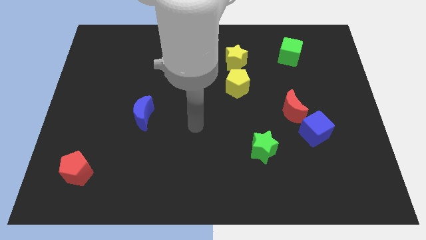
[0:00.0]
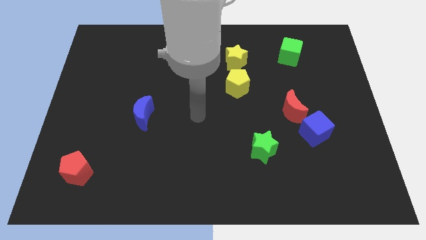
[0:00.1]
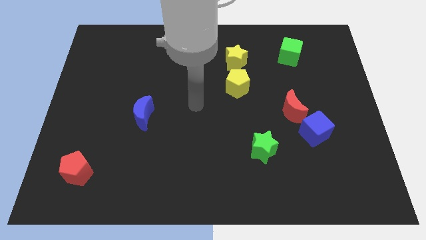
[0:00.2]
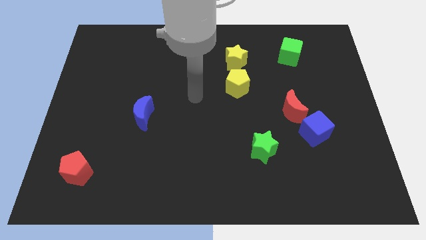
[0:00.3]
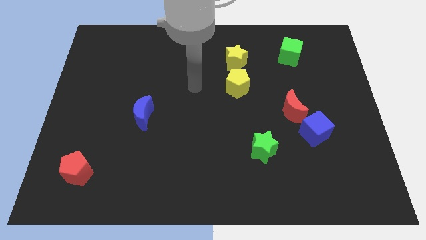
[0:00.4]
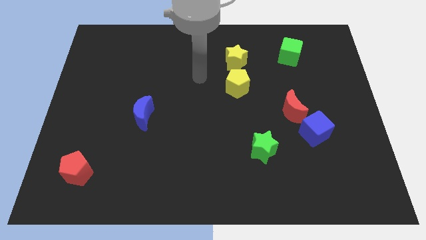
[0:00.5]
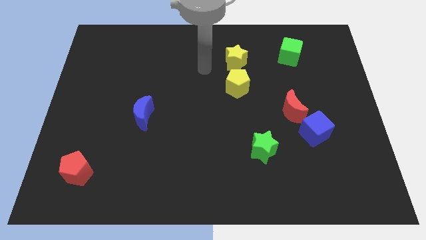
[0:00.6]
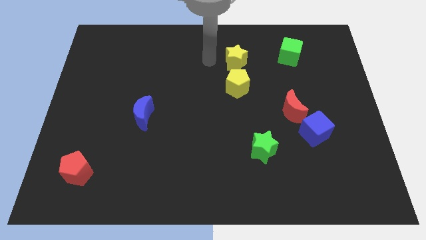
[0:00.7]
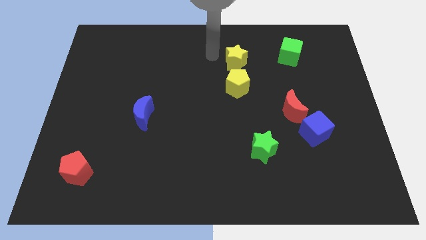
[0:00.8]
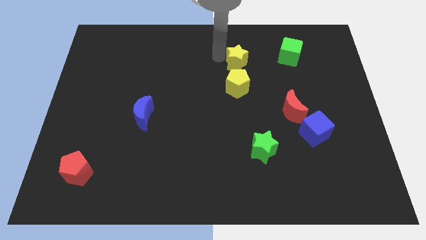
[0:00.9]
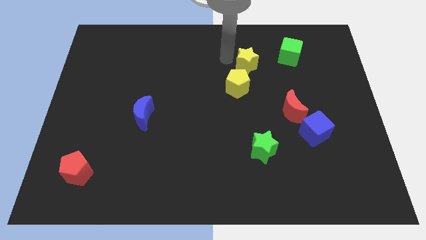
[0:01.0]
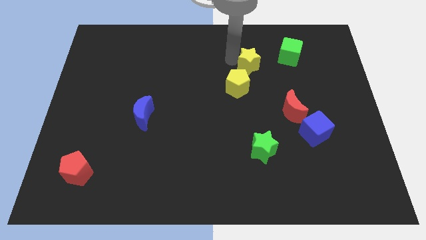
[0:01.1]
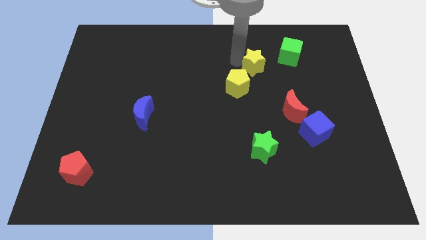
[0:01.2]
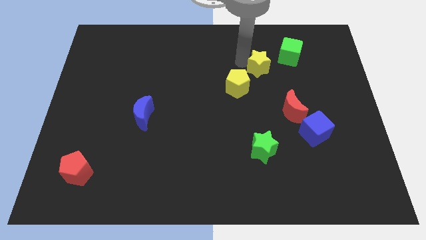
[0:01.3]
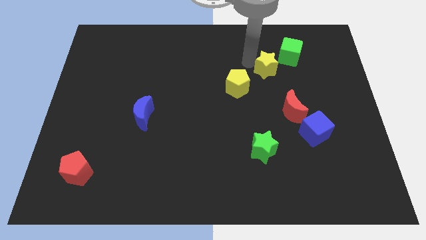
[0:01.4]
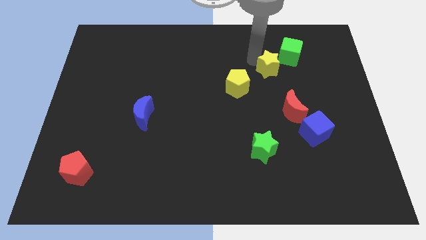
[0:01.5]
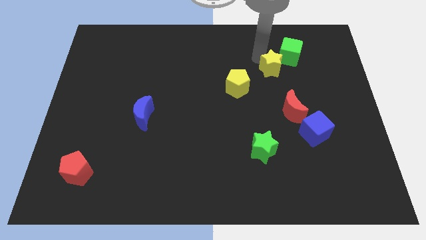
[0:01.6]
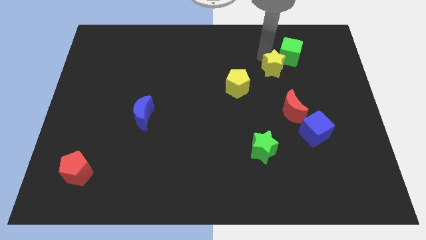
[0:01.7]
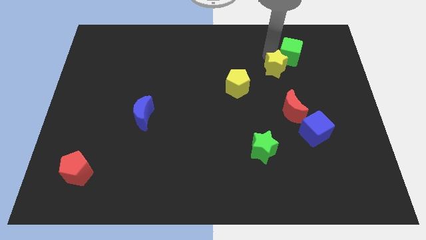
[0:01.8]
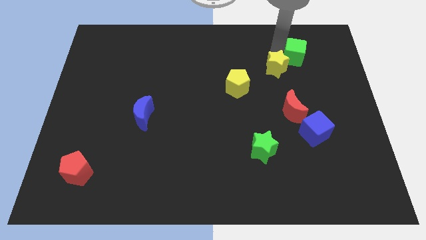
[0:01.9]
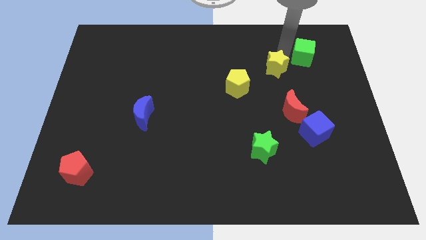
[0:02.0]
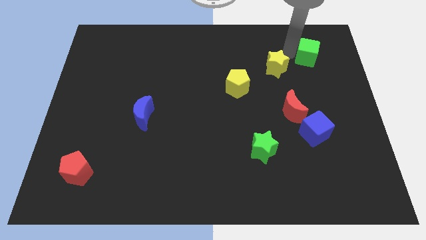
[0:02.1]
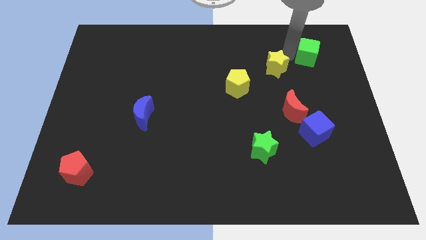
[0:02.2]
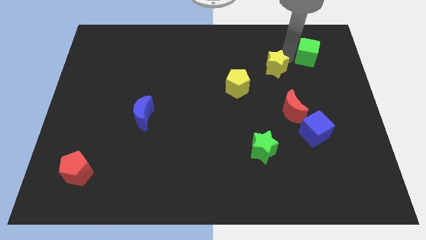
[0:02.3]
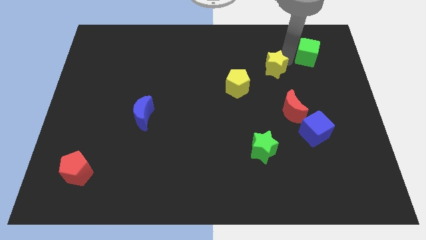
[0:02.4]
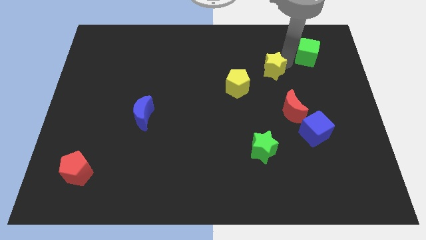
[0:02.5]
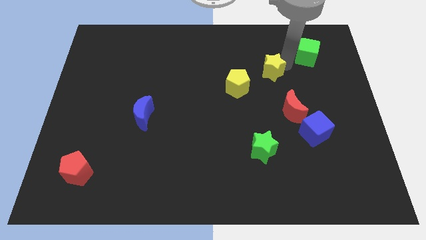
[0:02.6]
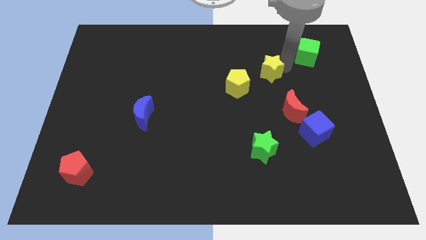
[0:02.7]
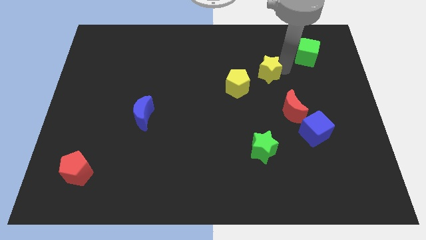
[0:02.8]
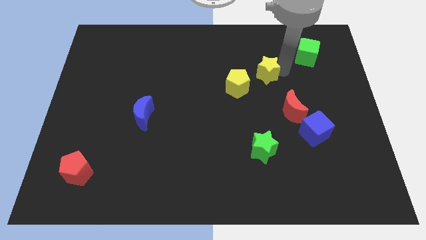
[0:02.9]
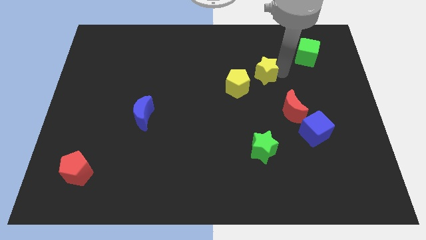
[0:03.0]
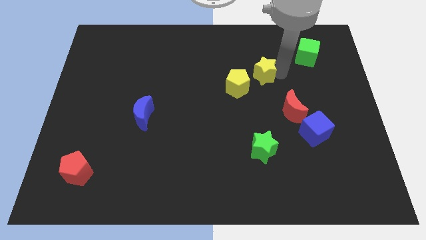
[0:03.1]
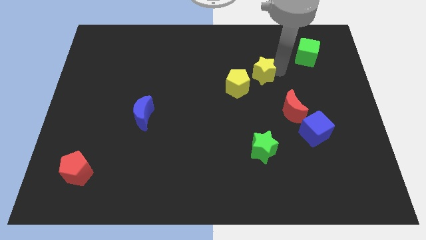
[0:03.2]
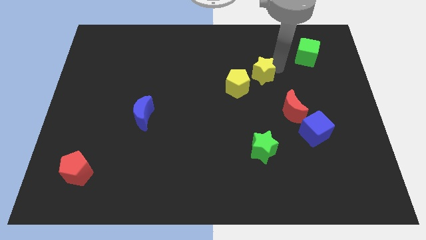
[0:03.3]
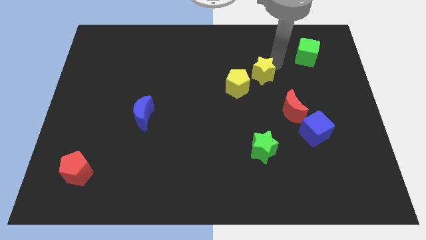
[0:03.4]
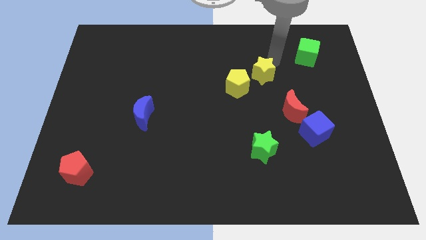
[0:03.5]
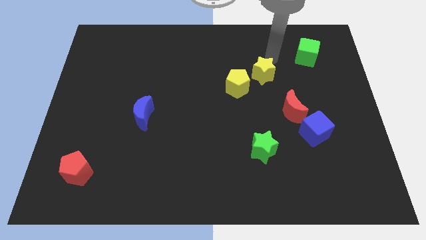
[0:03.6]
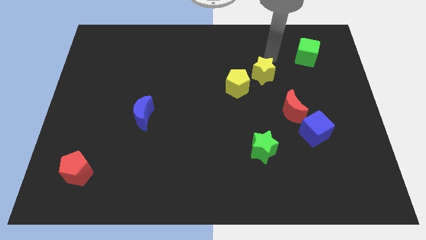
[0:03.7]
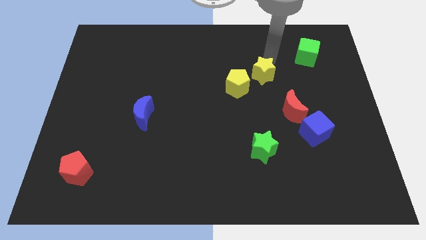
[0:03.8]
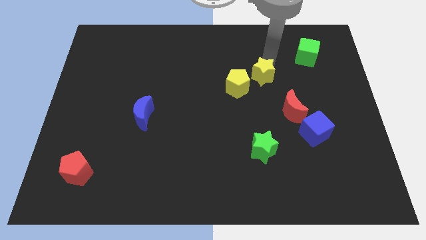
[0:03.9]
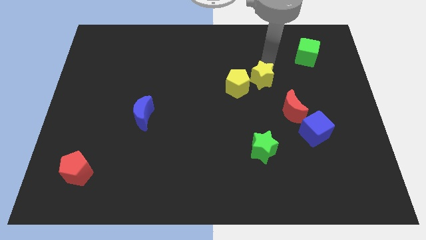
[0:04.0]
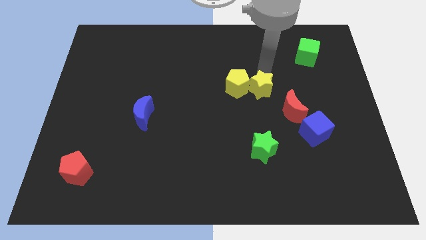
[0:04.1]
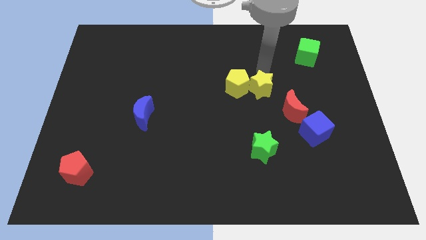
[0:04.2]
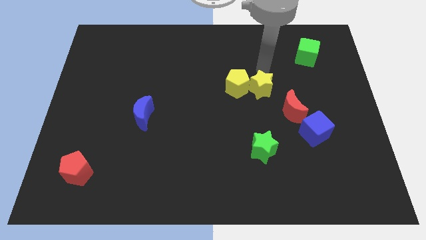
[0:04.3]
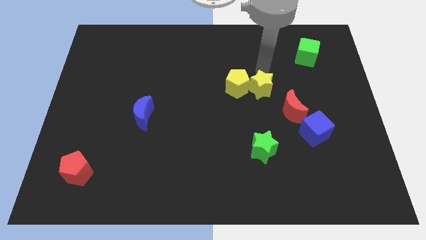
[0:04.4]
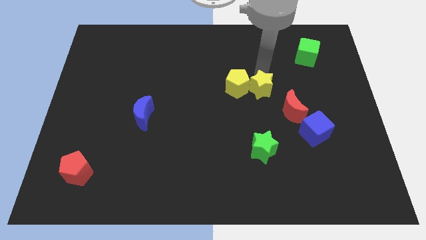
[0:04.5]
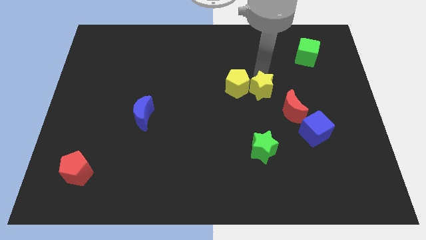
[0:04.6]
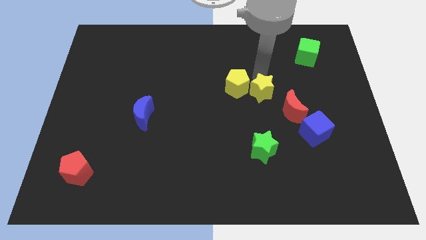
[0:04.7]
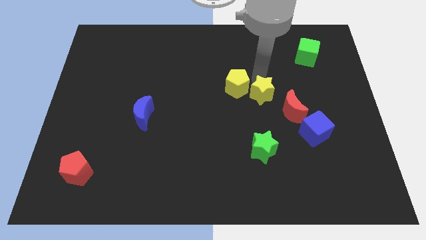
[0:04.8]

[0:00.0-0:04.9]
put the yellow star above the green star

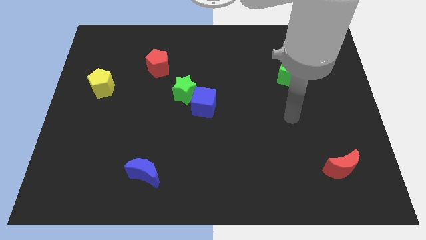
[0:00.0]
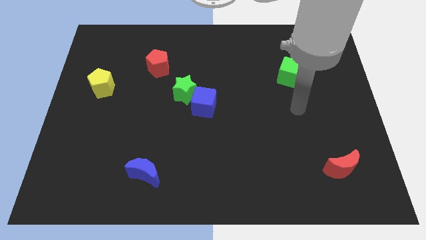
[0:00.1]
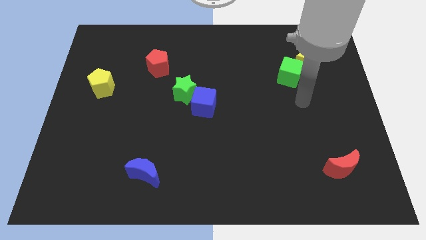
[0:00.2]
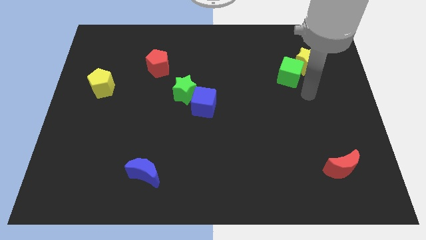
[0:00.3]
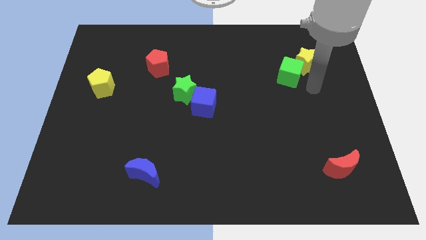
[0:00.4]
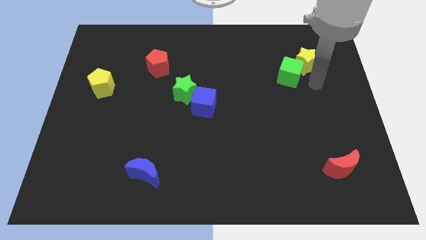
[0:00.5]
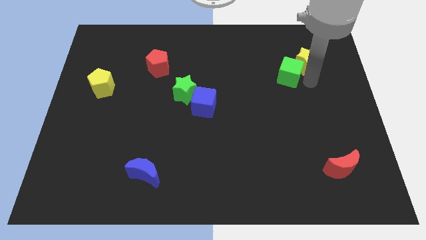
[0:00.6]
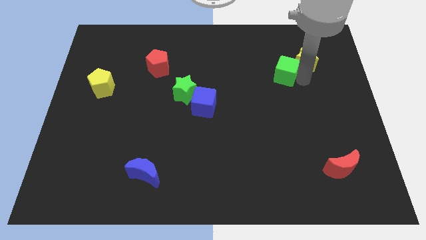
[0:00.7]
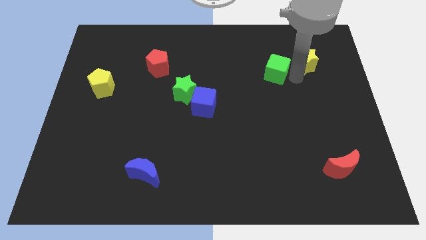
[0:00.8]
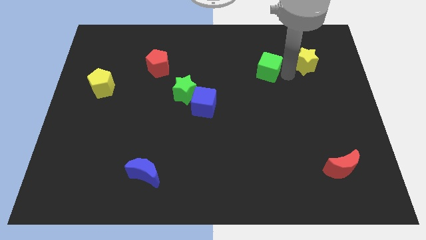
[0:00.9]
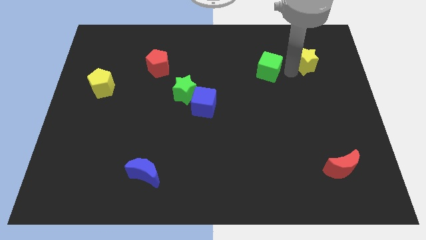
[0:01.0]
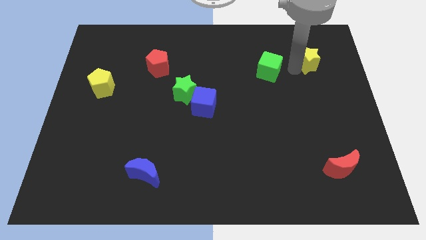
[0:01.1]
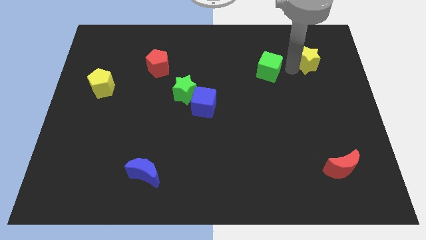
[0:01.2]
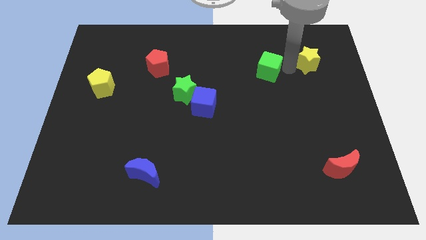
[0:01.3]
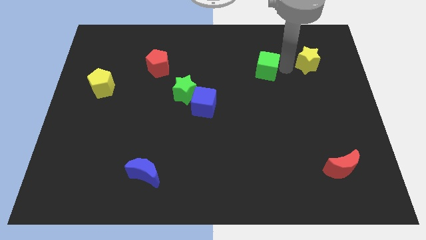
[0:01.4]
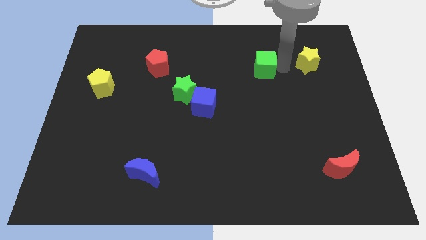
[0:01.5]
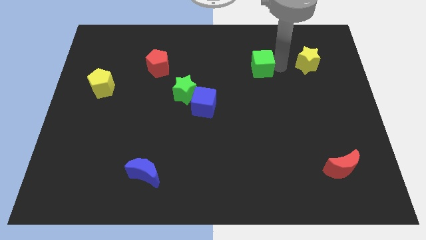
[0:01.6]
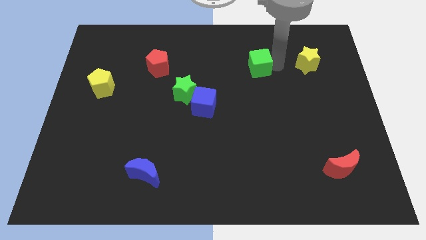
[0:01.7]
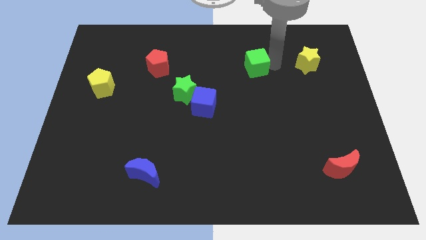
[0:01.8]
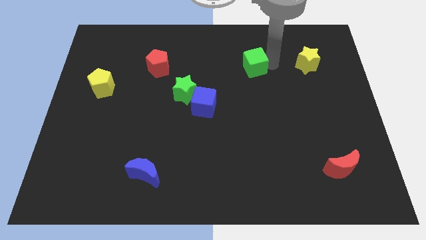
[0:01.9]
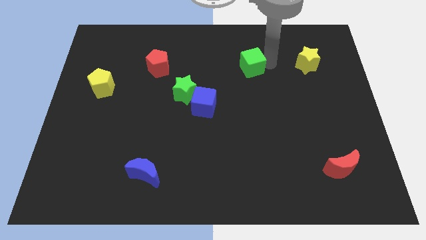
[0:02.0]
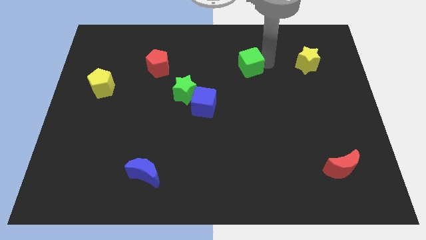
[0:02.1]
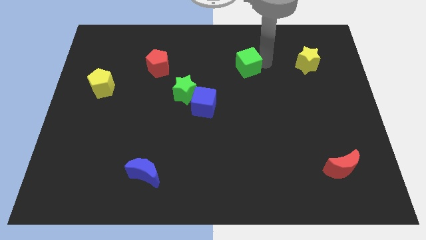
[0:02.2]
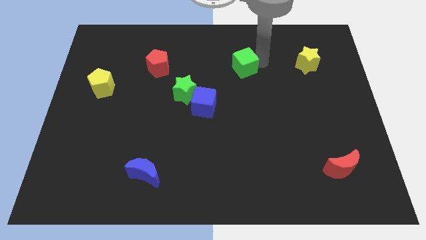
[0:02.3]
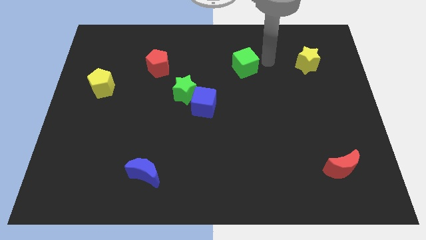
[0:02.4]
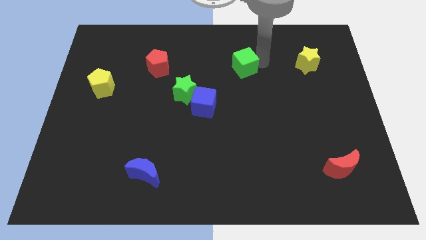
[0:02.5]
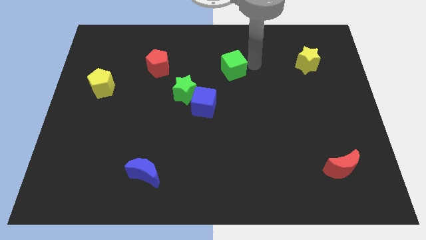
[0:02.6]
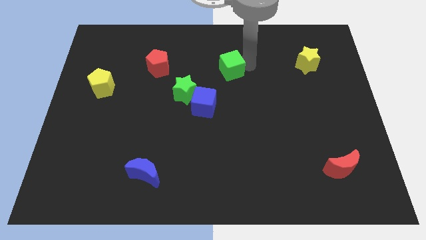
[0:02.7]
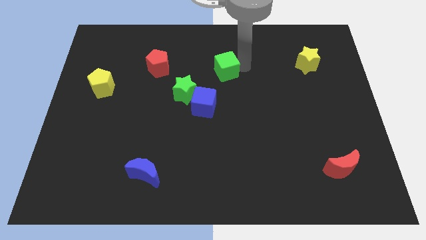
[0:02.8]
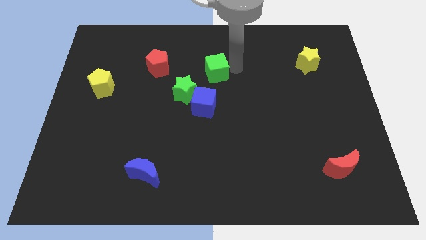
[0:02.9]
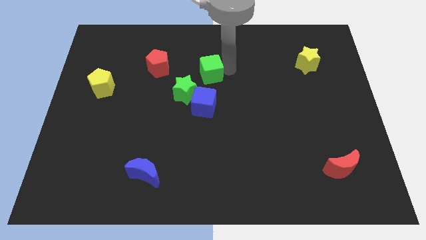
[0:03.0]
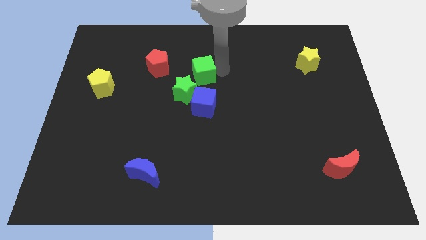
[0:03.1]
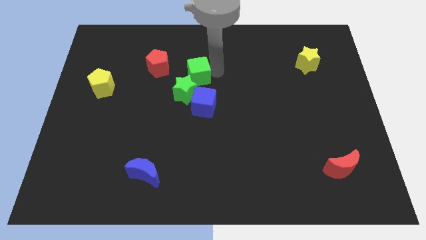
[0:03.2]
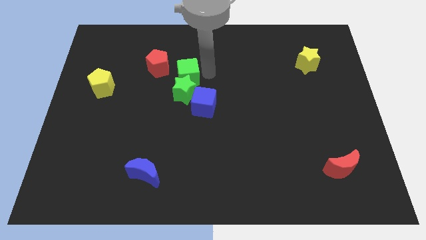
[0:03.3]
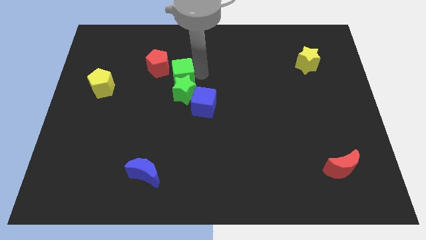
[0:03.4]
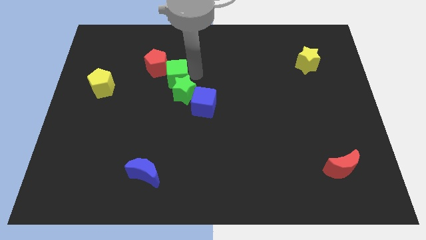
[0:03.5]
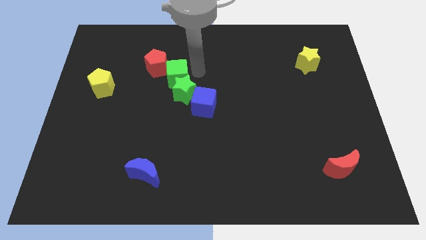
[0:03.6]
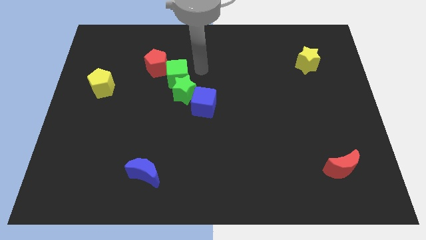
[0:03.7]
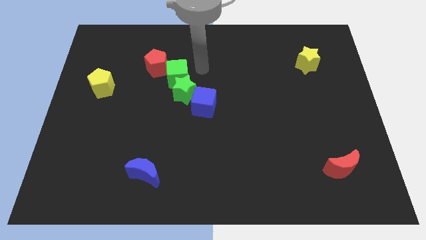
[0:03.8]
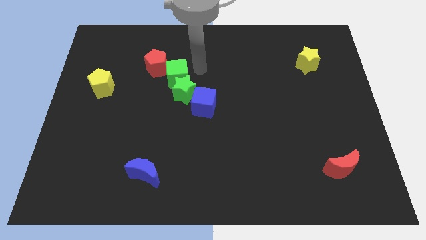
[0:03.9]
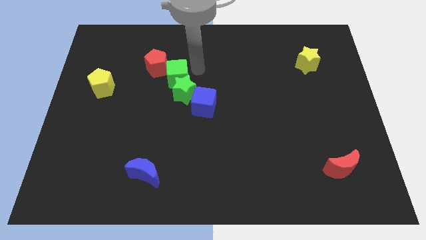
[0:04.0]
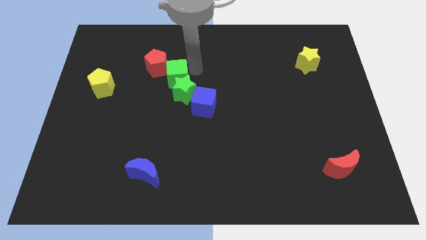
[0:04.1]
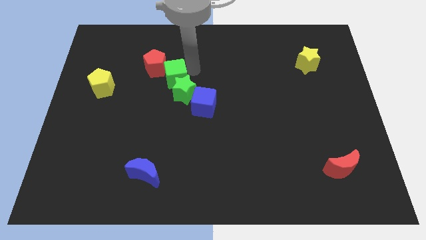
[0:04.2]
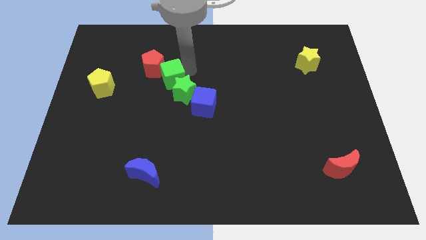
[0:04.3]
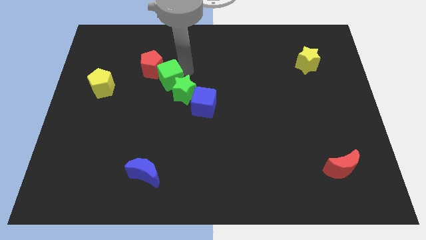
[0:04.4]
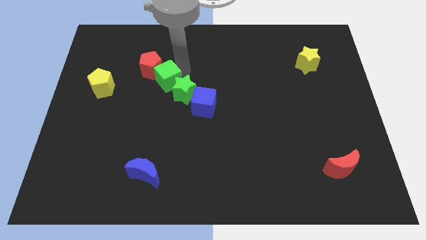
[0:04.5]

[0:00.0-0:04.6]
put the green cube to the right side of the yellow pentagon
